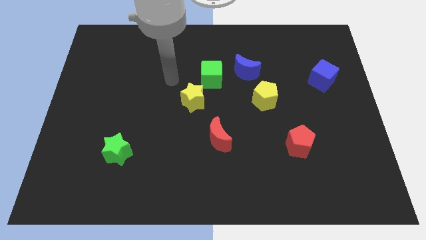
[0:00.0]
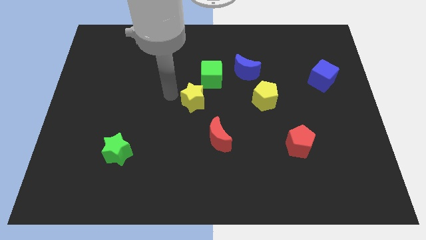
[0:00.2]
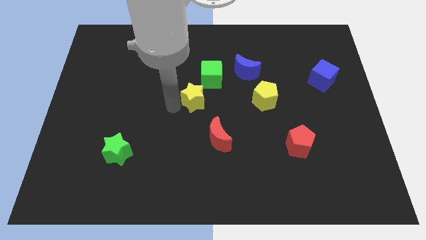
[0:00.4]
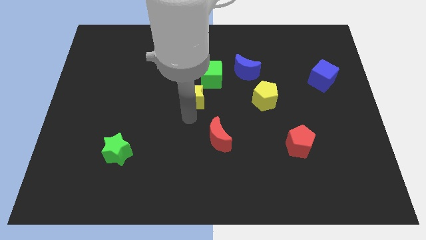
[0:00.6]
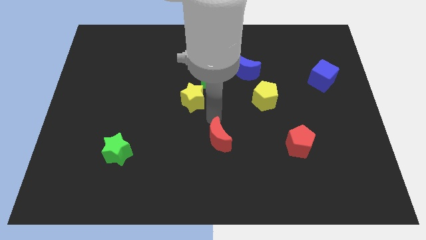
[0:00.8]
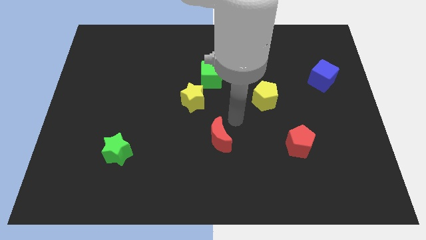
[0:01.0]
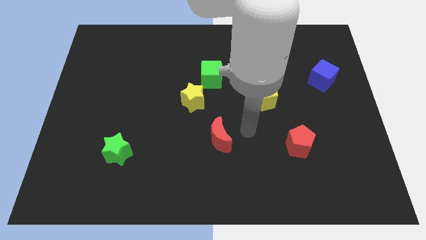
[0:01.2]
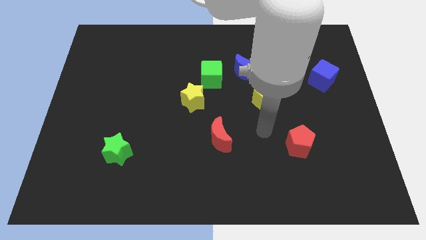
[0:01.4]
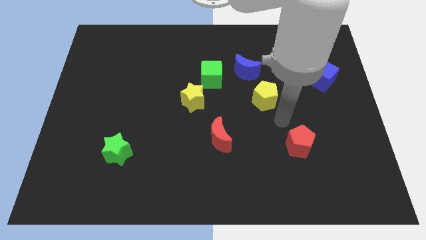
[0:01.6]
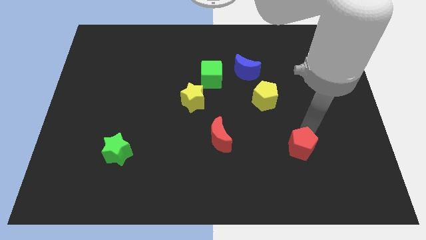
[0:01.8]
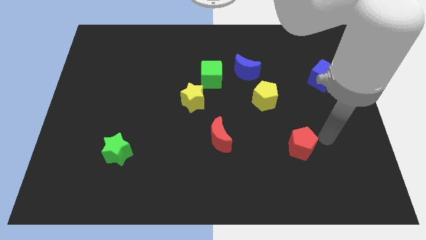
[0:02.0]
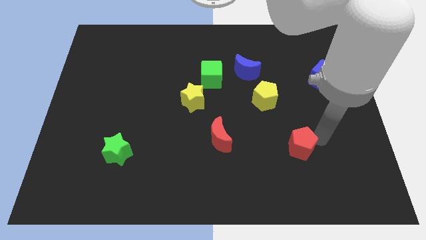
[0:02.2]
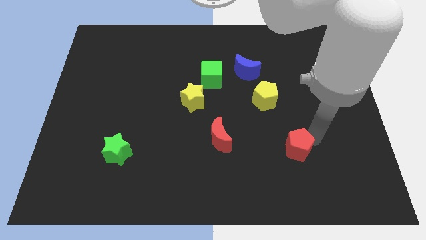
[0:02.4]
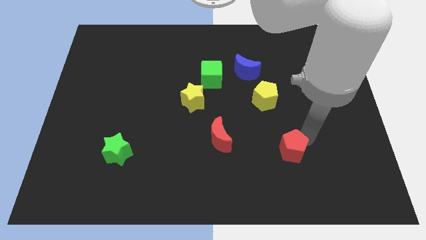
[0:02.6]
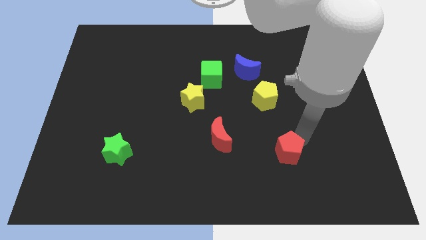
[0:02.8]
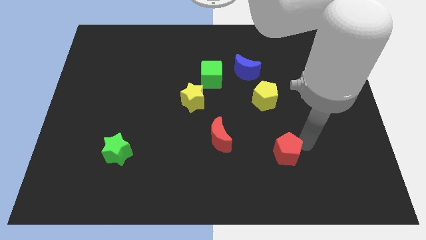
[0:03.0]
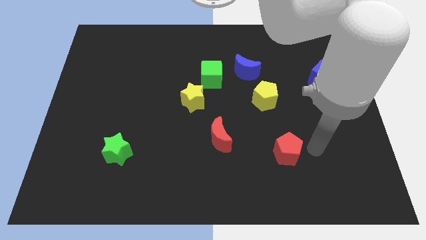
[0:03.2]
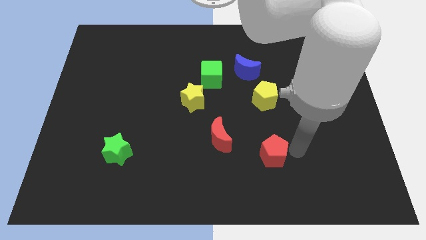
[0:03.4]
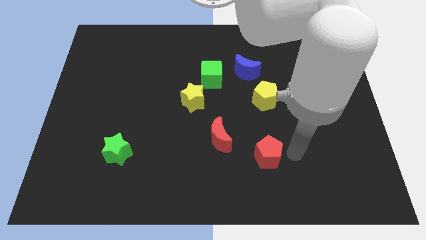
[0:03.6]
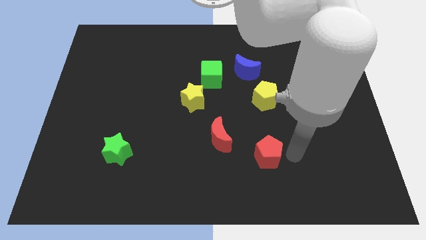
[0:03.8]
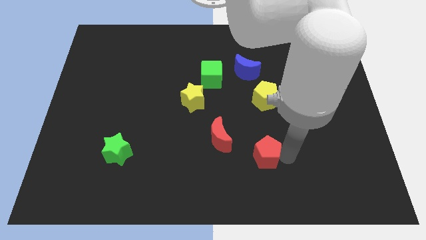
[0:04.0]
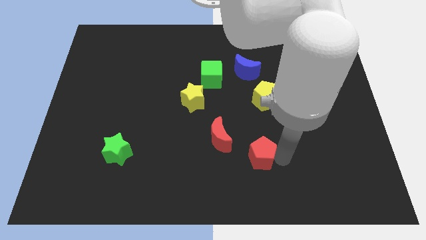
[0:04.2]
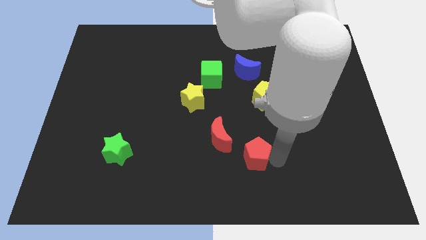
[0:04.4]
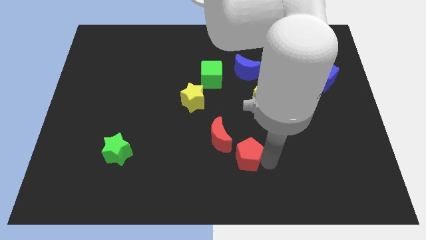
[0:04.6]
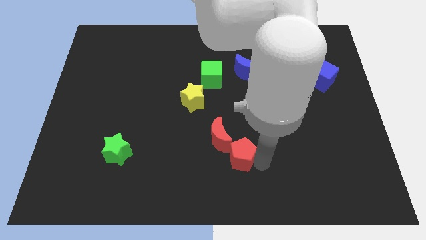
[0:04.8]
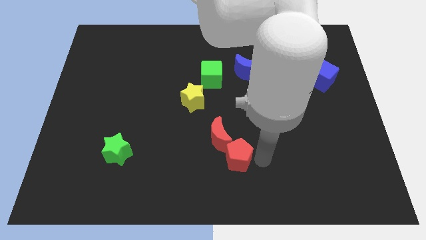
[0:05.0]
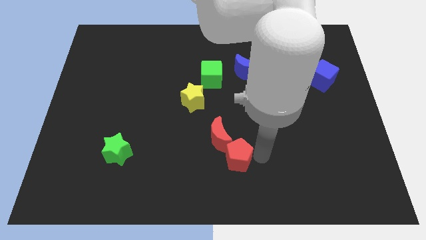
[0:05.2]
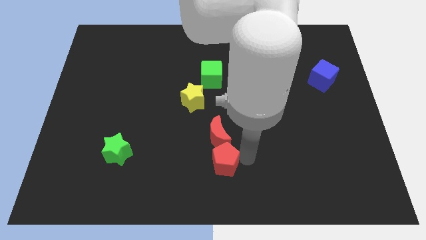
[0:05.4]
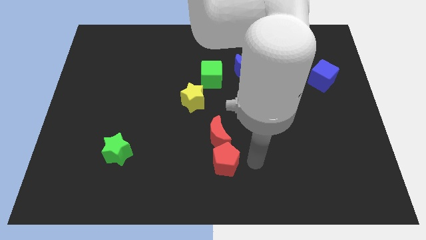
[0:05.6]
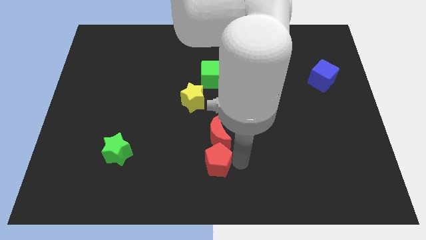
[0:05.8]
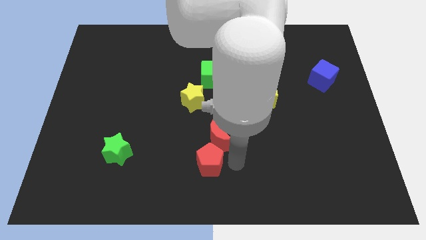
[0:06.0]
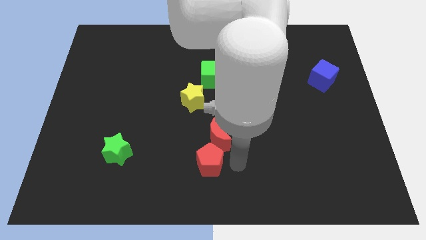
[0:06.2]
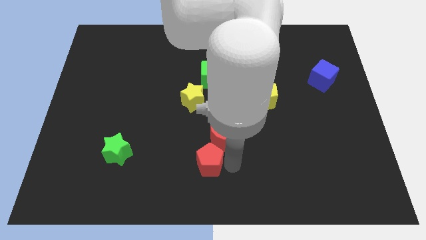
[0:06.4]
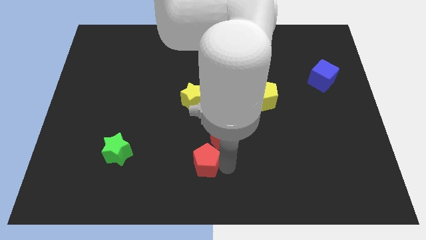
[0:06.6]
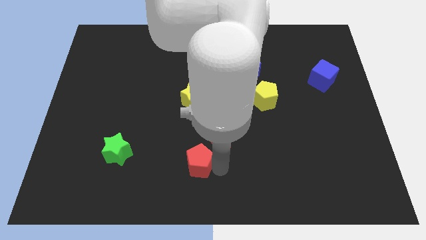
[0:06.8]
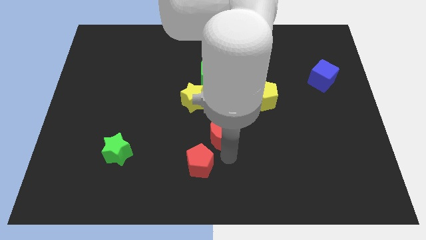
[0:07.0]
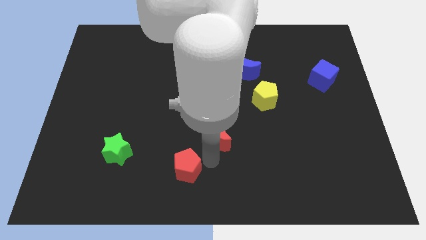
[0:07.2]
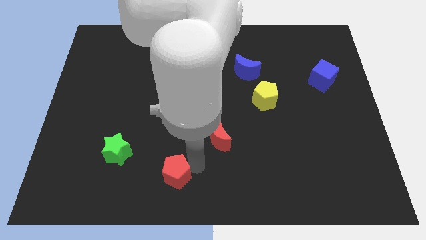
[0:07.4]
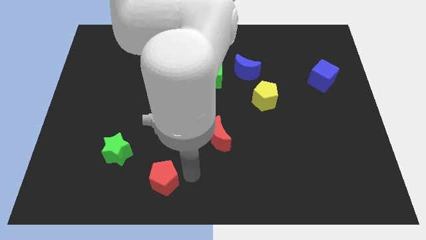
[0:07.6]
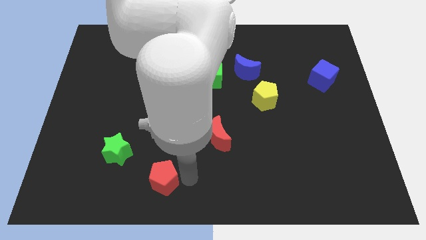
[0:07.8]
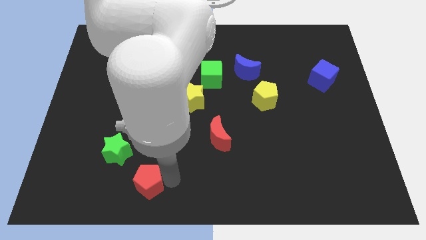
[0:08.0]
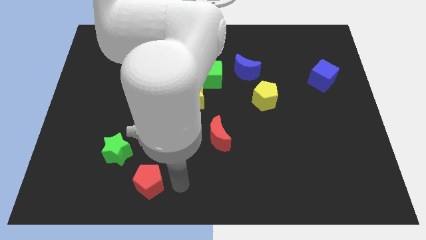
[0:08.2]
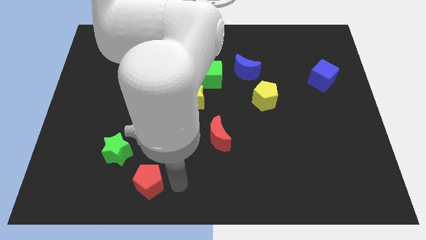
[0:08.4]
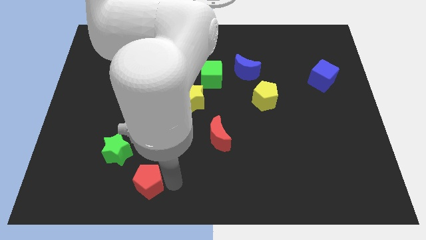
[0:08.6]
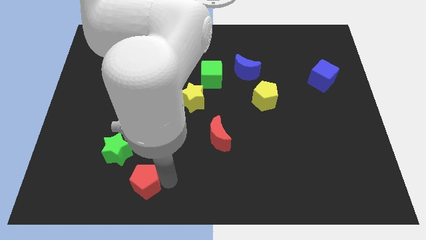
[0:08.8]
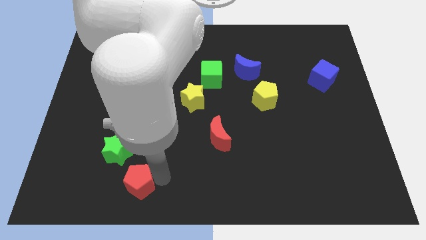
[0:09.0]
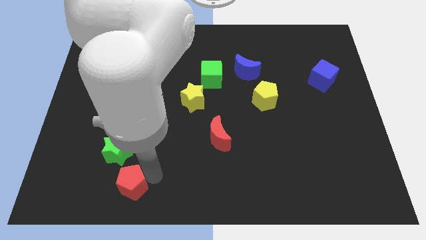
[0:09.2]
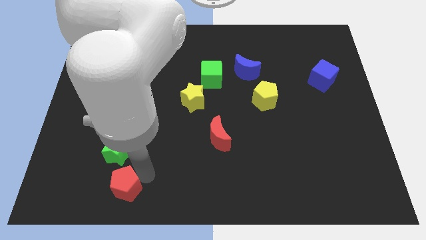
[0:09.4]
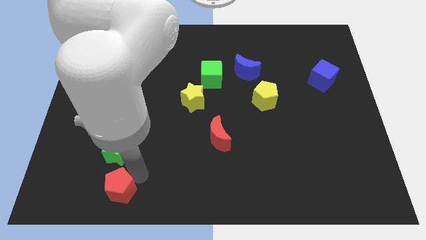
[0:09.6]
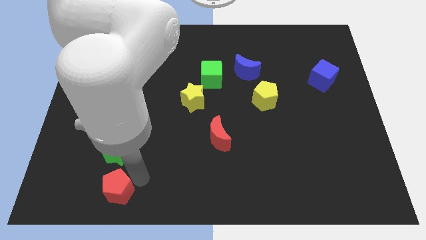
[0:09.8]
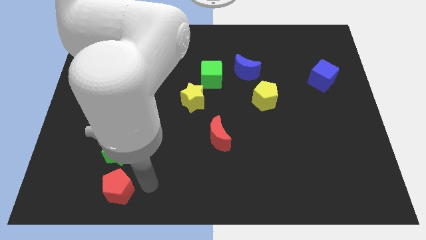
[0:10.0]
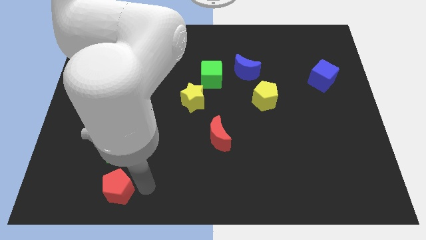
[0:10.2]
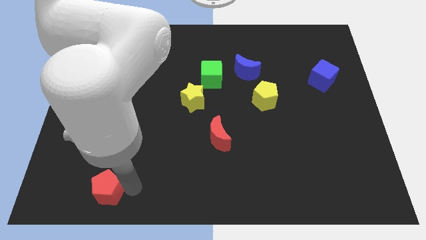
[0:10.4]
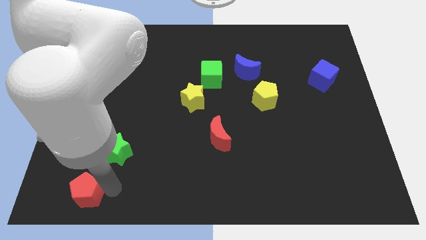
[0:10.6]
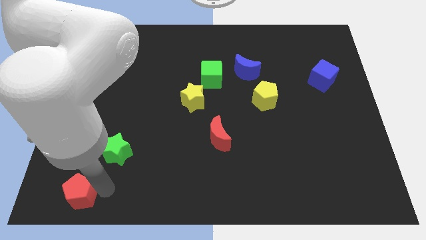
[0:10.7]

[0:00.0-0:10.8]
slide the red pentagon to the bottom left

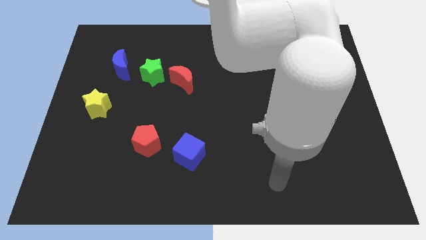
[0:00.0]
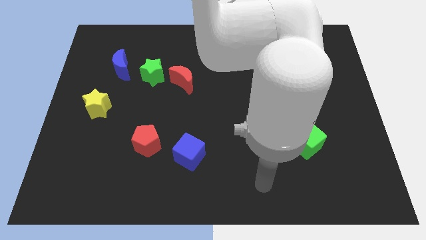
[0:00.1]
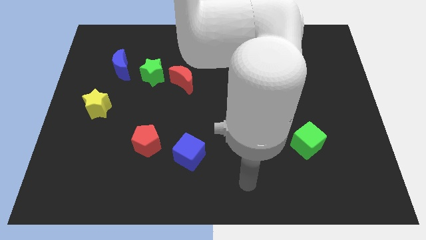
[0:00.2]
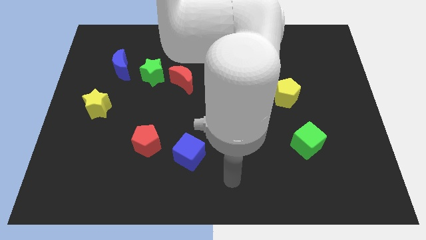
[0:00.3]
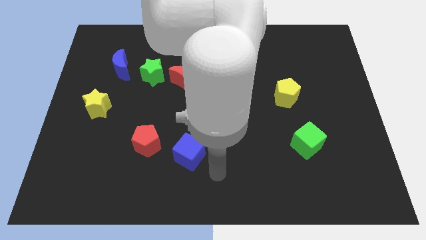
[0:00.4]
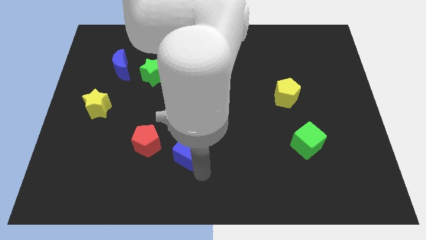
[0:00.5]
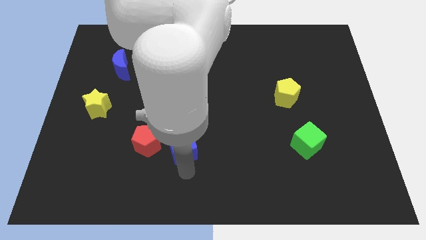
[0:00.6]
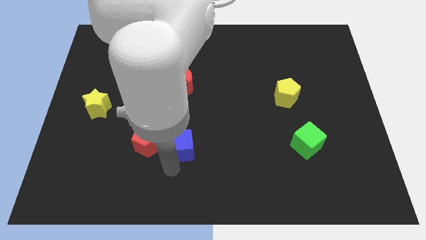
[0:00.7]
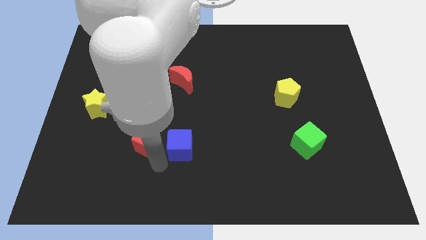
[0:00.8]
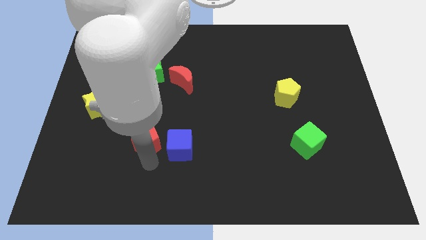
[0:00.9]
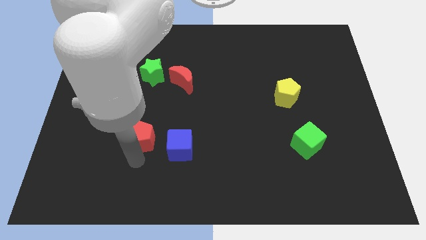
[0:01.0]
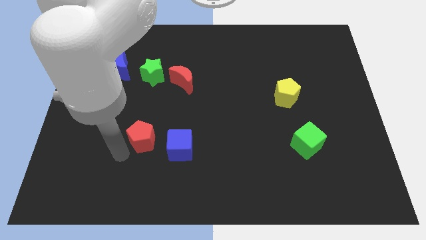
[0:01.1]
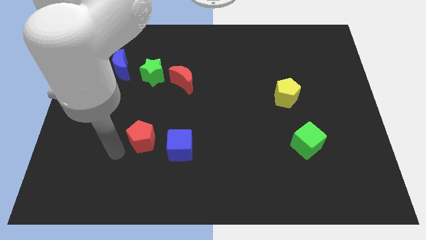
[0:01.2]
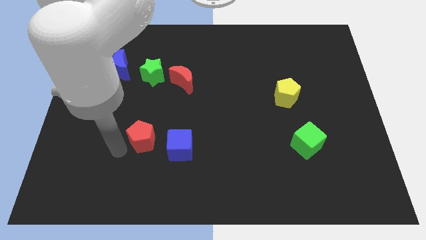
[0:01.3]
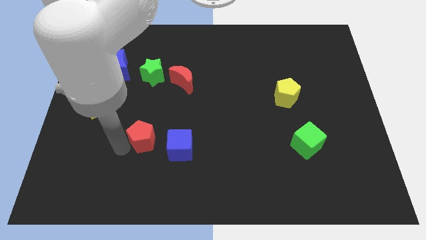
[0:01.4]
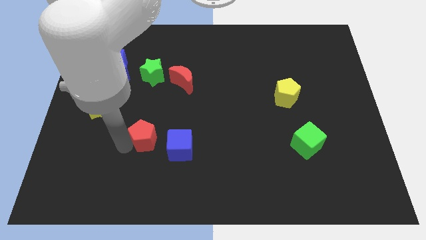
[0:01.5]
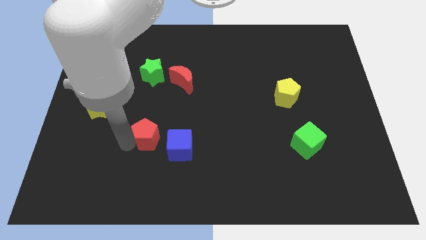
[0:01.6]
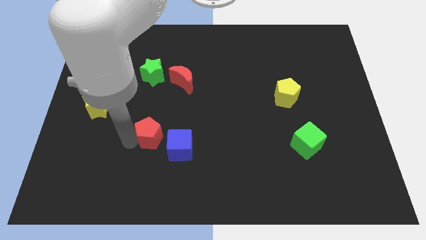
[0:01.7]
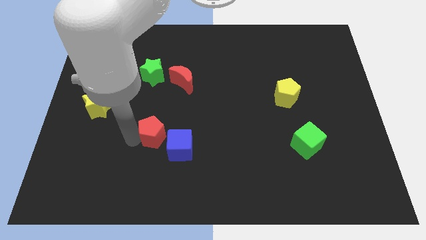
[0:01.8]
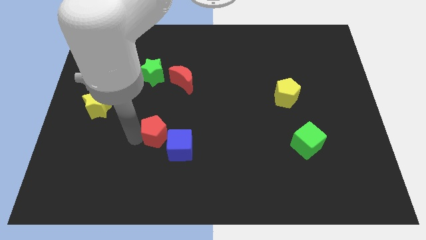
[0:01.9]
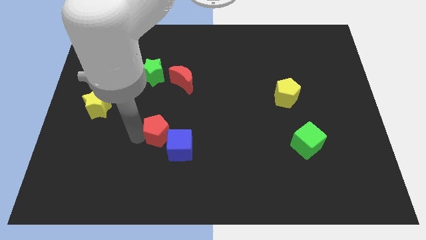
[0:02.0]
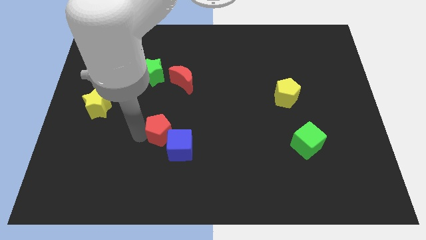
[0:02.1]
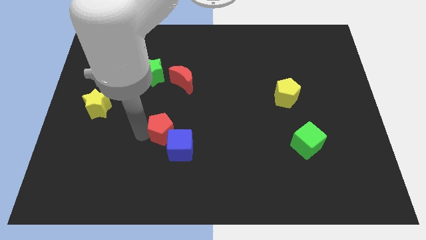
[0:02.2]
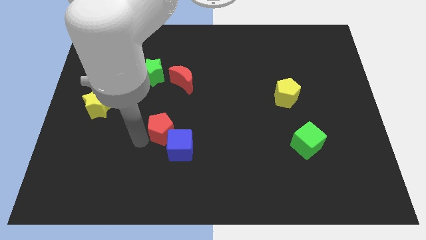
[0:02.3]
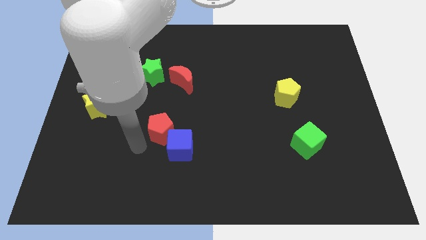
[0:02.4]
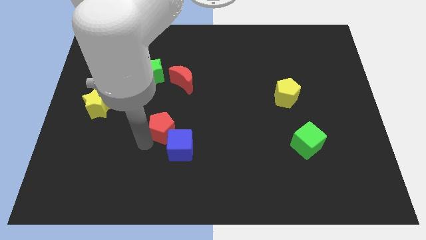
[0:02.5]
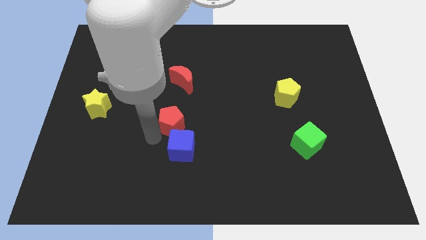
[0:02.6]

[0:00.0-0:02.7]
put the red pentagon to the middle
